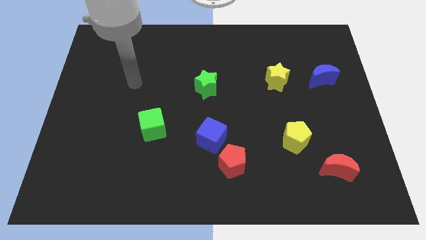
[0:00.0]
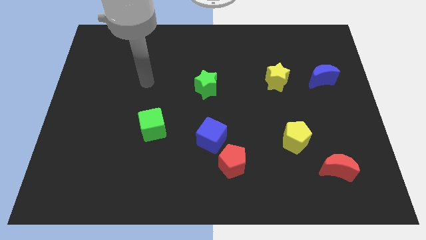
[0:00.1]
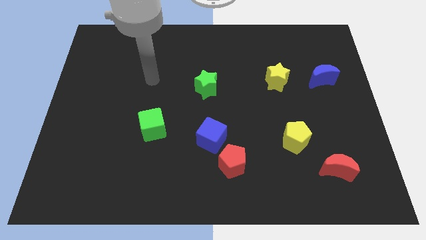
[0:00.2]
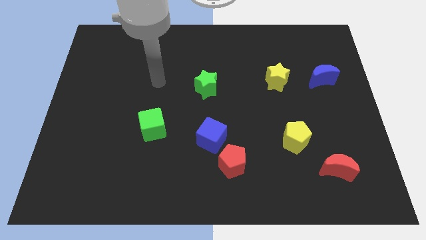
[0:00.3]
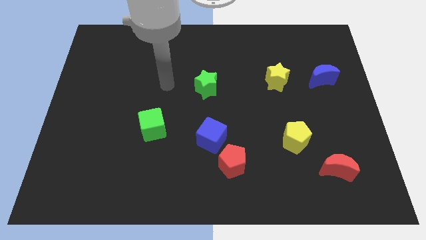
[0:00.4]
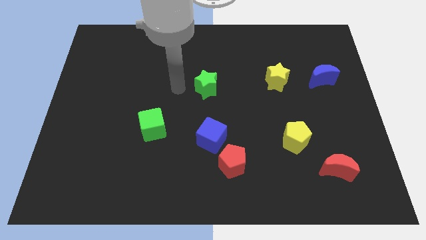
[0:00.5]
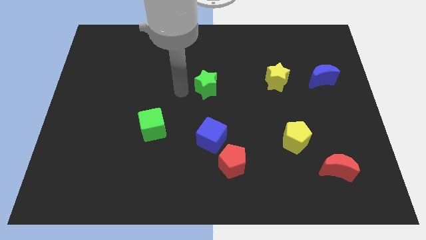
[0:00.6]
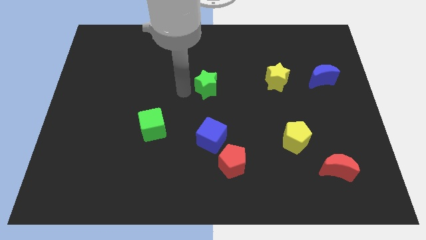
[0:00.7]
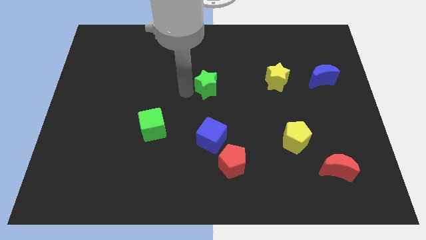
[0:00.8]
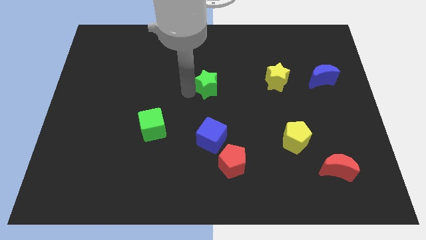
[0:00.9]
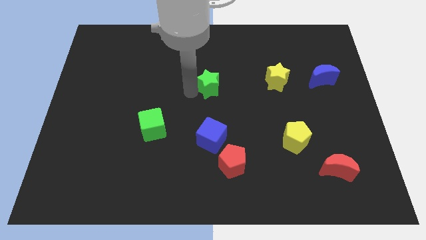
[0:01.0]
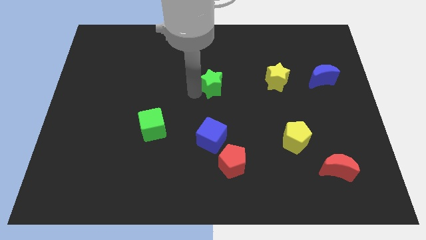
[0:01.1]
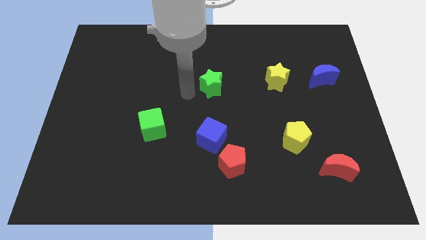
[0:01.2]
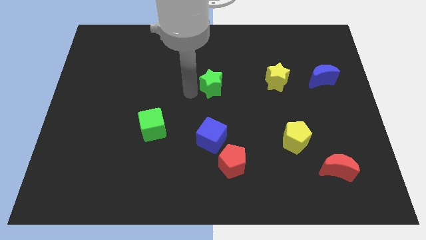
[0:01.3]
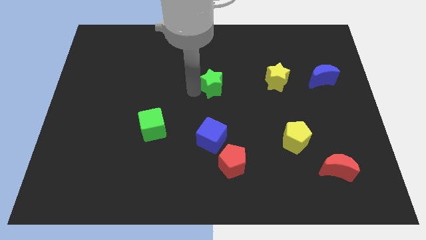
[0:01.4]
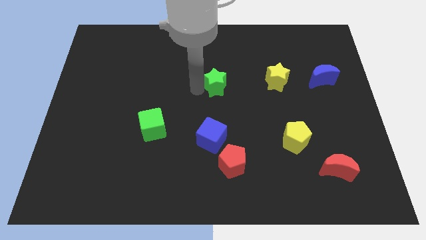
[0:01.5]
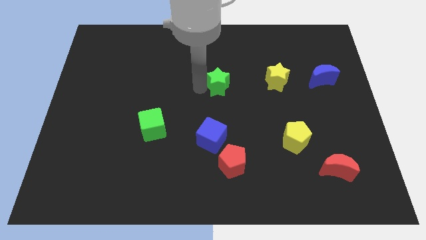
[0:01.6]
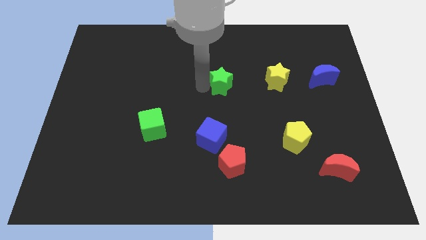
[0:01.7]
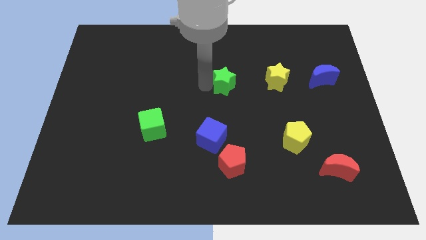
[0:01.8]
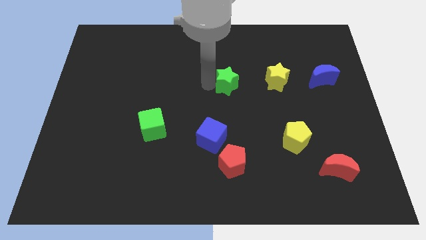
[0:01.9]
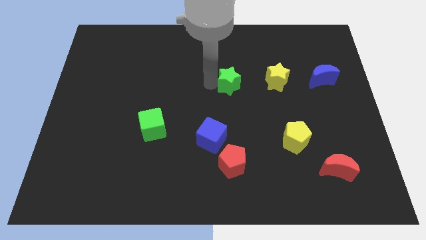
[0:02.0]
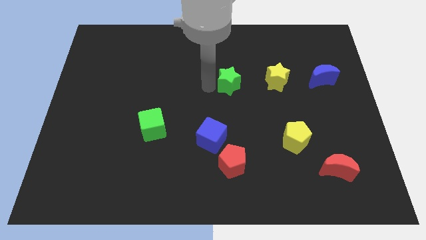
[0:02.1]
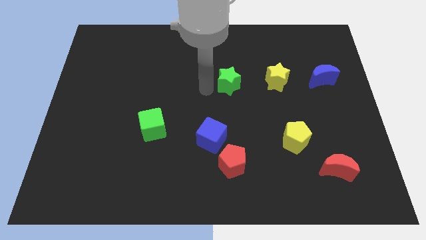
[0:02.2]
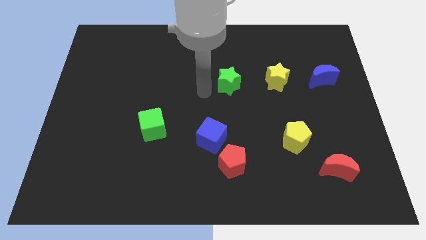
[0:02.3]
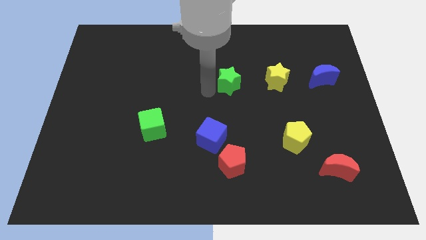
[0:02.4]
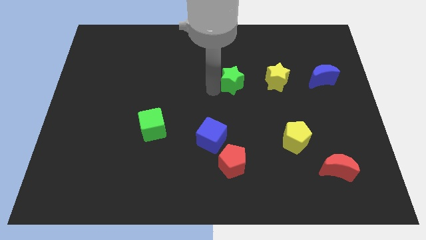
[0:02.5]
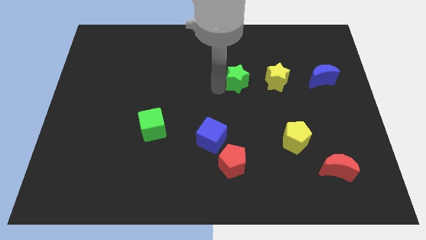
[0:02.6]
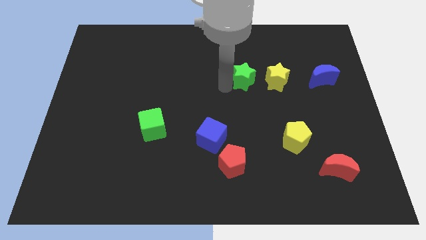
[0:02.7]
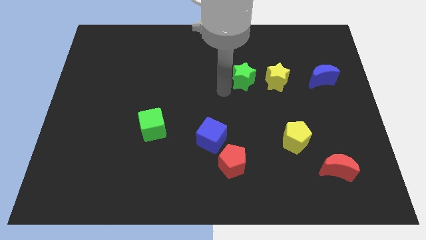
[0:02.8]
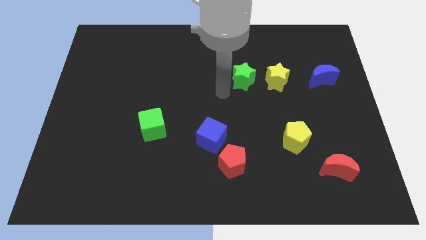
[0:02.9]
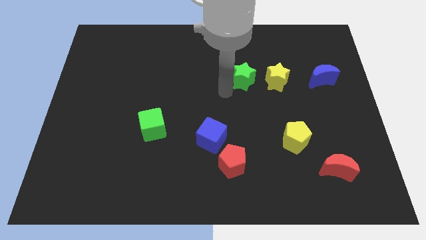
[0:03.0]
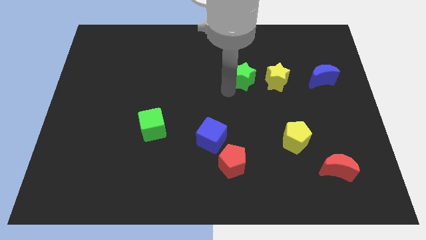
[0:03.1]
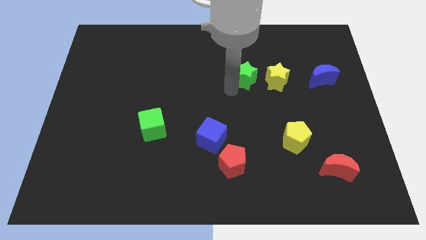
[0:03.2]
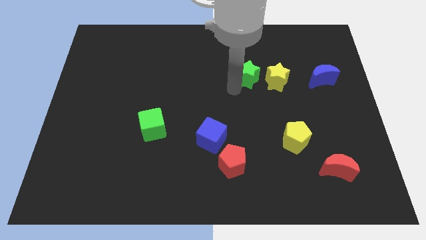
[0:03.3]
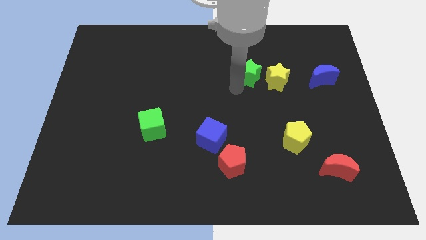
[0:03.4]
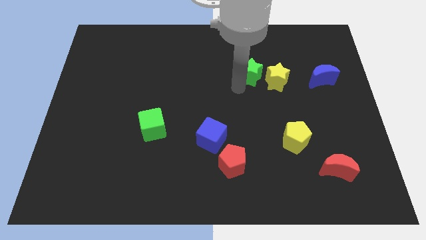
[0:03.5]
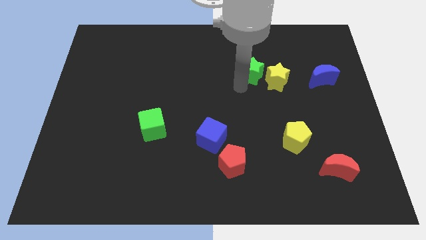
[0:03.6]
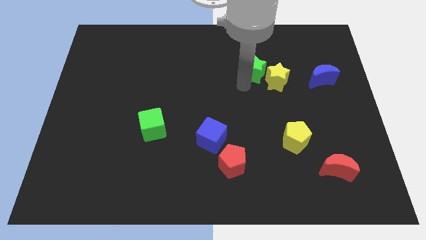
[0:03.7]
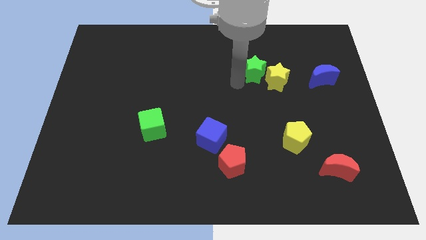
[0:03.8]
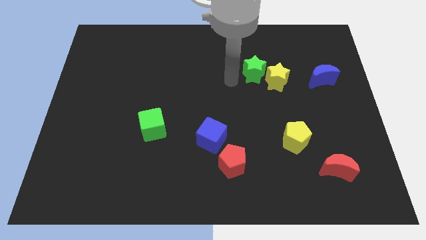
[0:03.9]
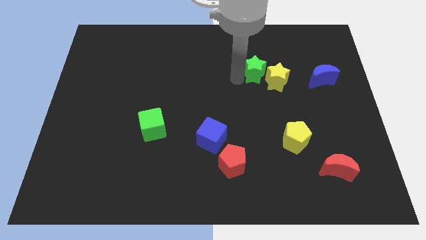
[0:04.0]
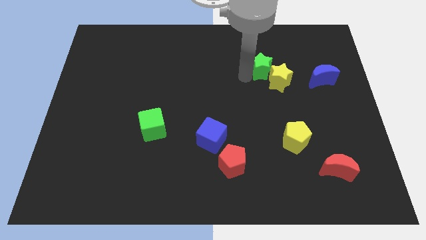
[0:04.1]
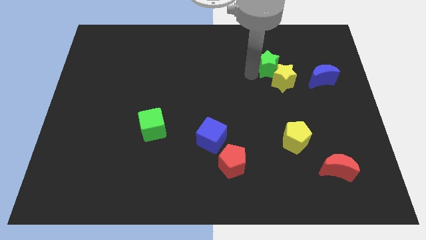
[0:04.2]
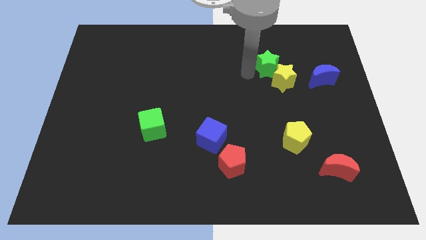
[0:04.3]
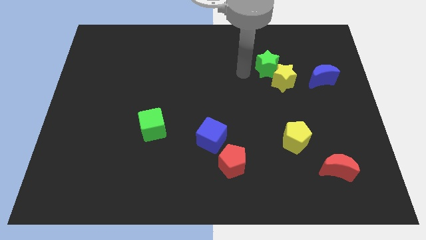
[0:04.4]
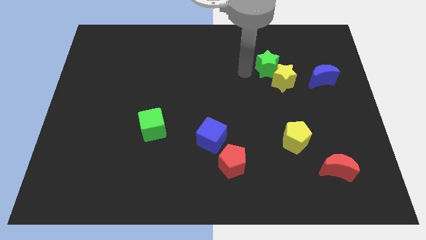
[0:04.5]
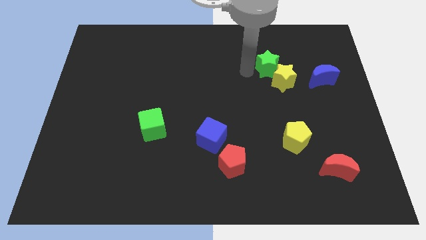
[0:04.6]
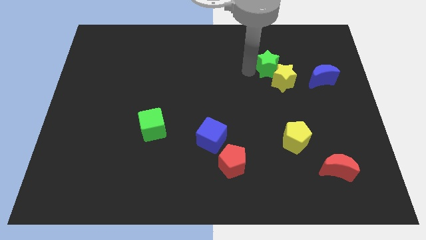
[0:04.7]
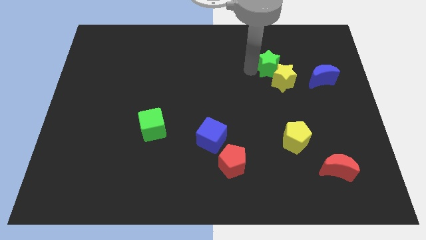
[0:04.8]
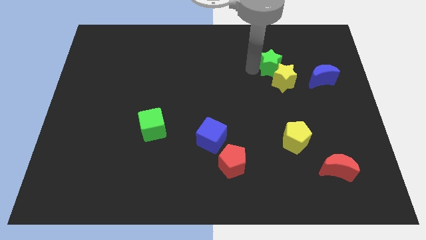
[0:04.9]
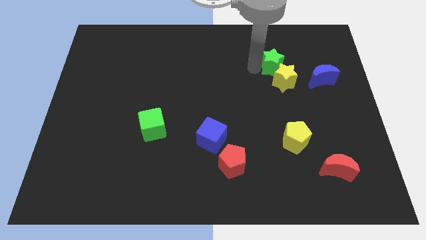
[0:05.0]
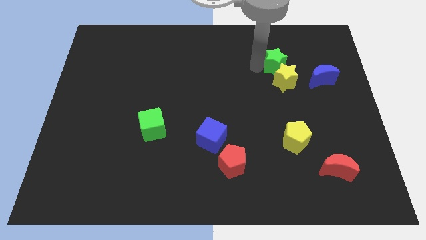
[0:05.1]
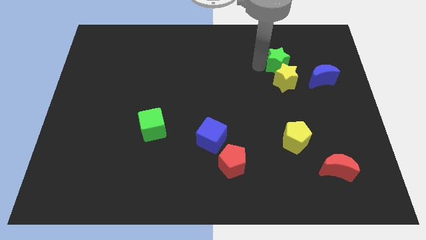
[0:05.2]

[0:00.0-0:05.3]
move the green star diagonally up and to the left of the blue moon

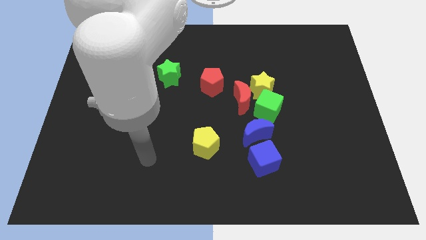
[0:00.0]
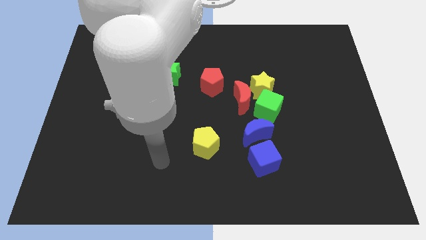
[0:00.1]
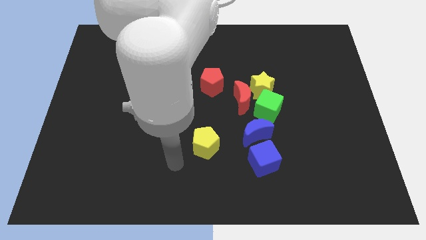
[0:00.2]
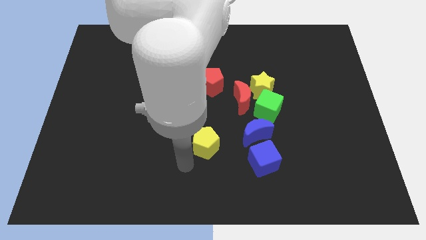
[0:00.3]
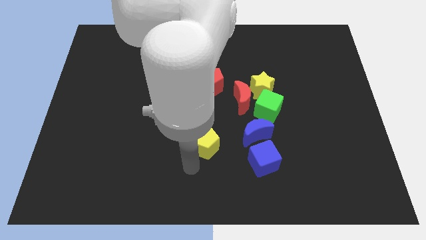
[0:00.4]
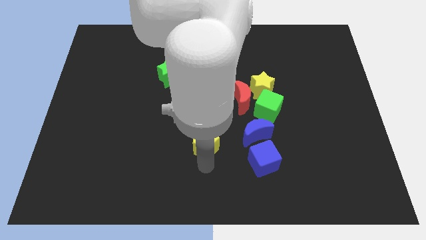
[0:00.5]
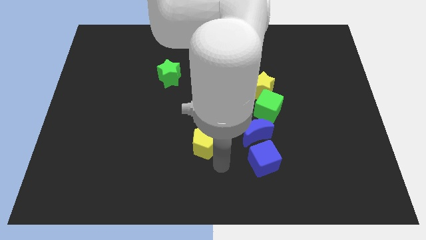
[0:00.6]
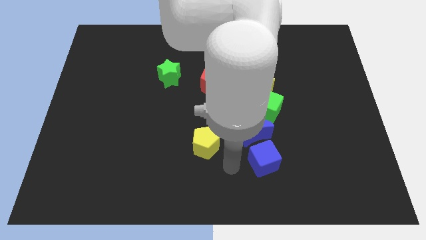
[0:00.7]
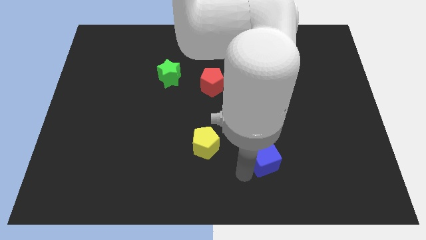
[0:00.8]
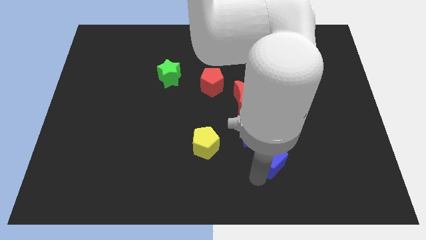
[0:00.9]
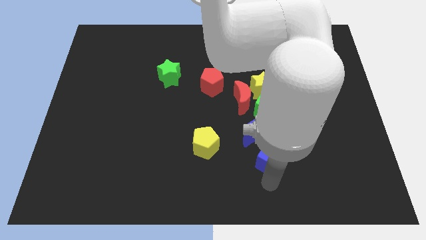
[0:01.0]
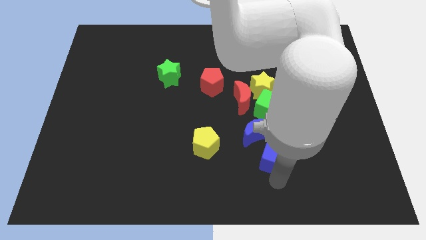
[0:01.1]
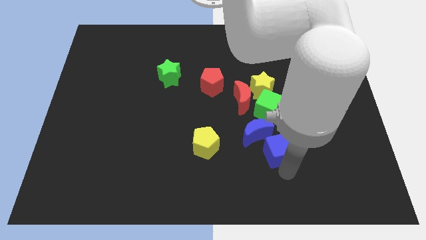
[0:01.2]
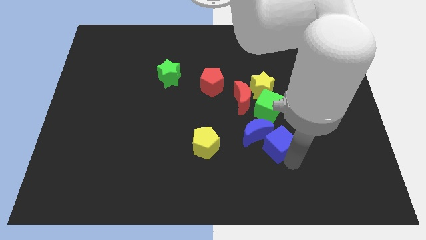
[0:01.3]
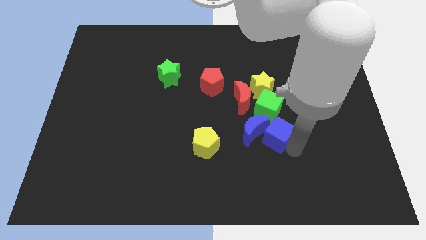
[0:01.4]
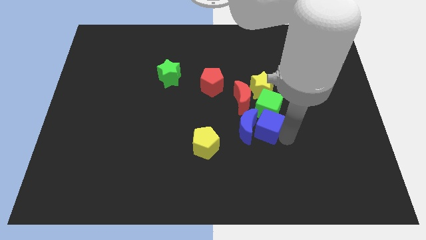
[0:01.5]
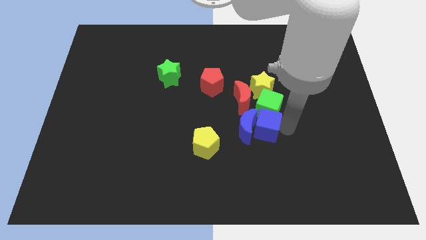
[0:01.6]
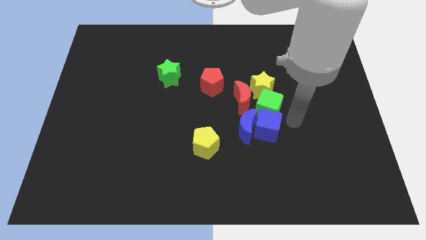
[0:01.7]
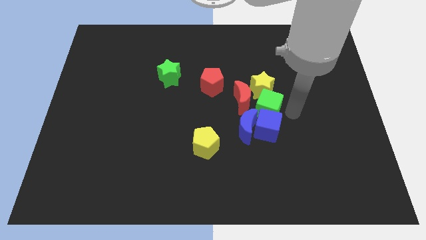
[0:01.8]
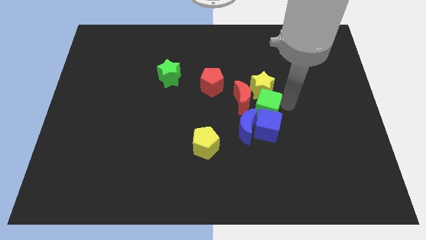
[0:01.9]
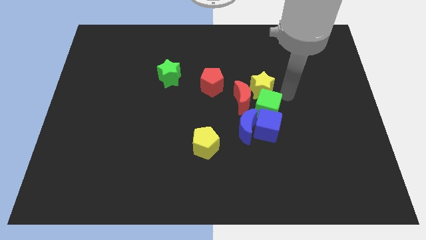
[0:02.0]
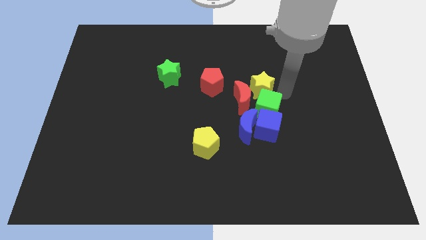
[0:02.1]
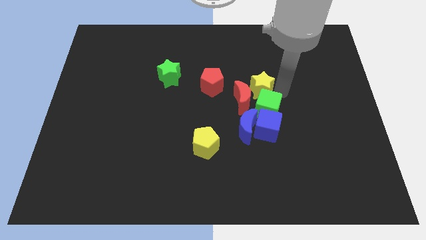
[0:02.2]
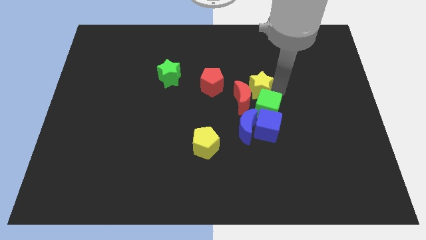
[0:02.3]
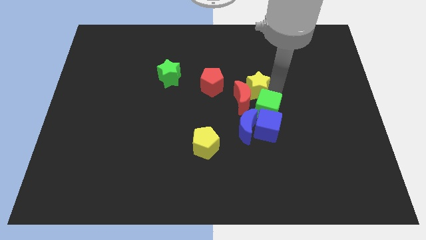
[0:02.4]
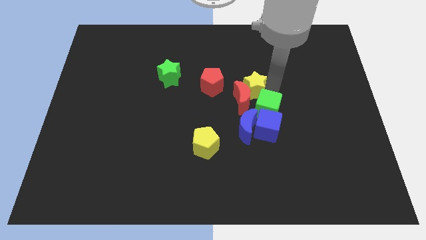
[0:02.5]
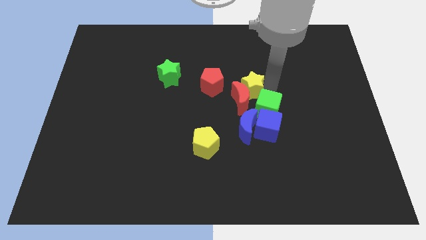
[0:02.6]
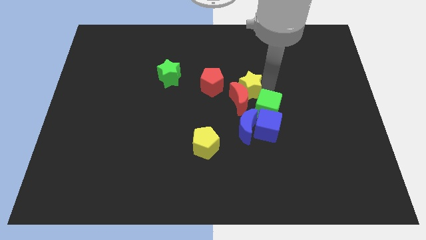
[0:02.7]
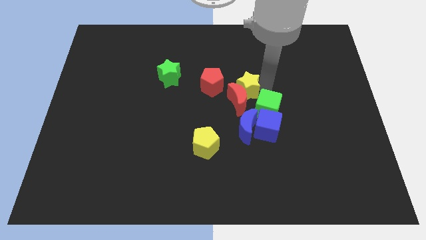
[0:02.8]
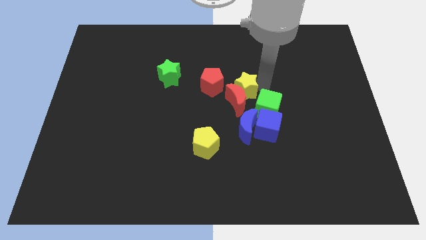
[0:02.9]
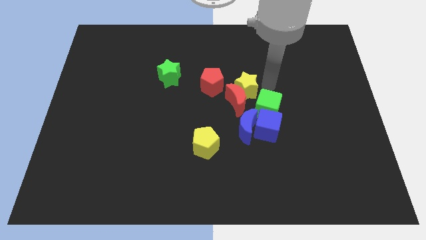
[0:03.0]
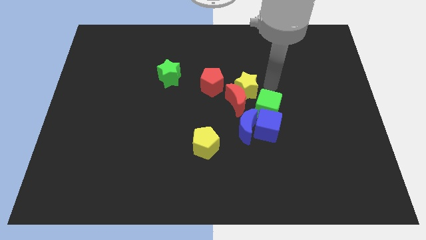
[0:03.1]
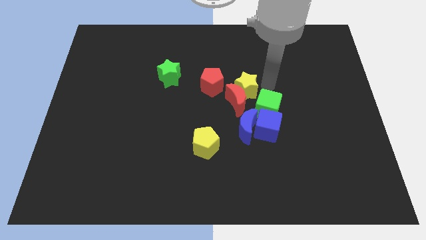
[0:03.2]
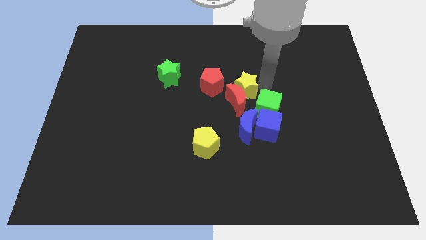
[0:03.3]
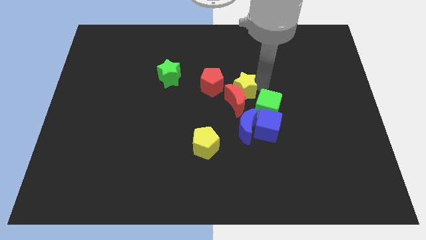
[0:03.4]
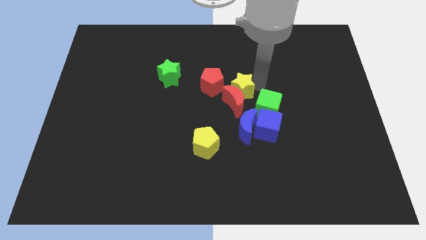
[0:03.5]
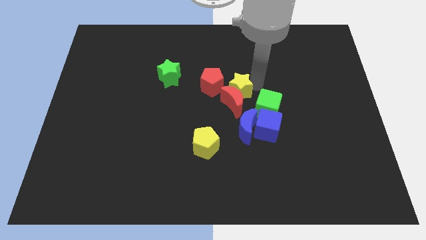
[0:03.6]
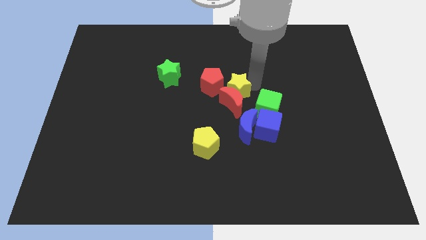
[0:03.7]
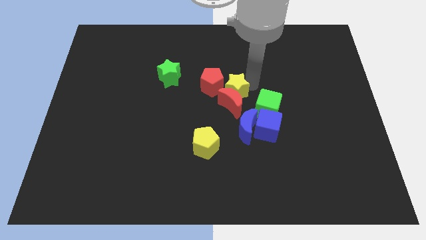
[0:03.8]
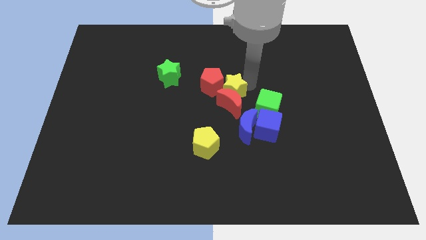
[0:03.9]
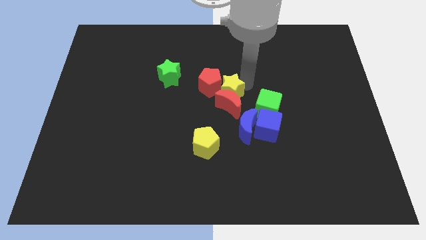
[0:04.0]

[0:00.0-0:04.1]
push the yellow star to the left side of the green cube
